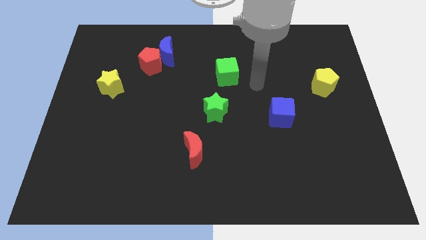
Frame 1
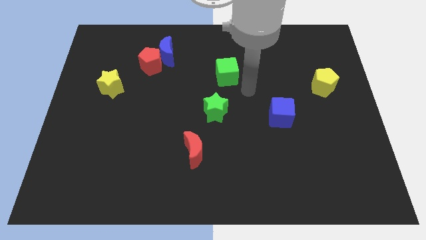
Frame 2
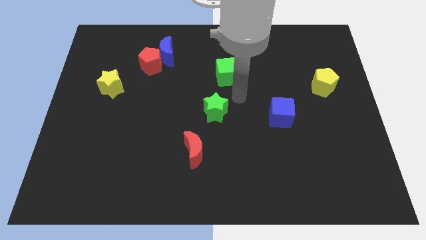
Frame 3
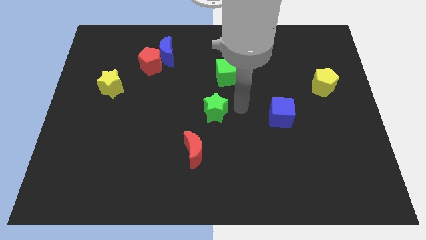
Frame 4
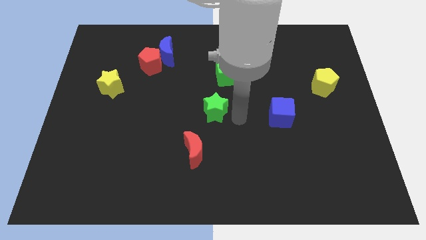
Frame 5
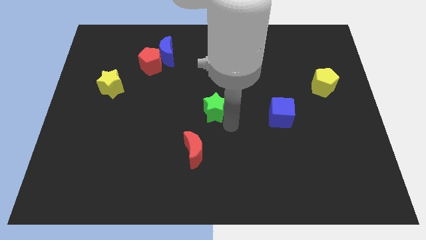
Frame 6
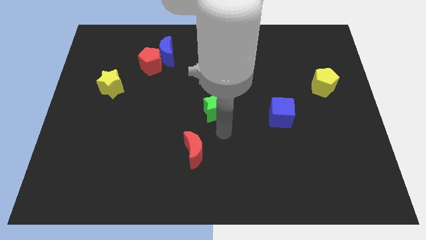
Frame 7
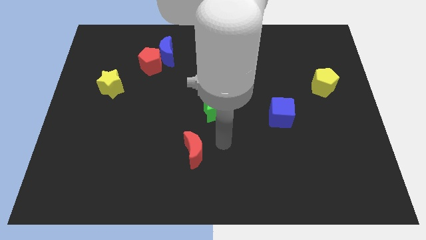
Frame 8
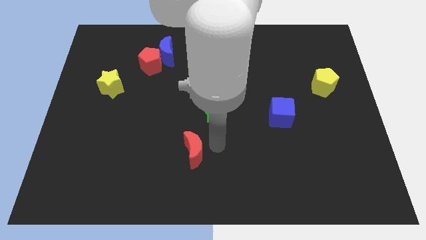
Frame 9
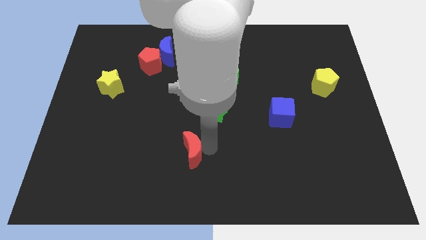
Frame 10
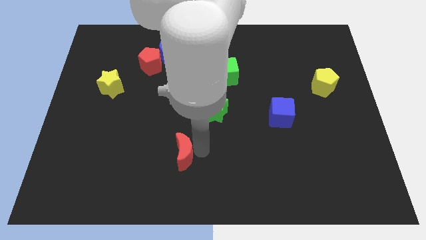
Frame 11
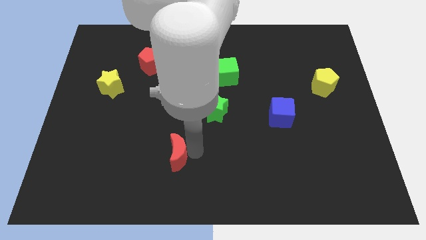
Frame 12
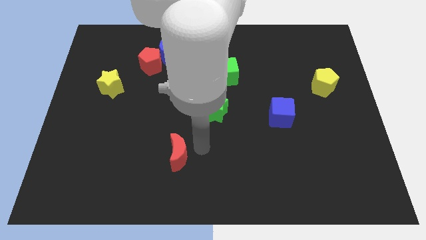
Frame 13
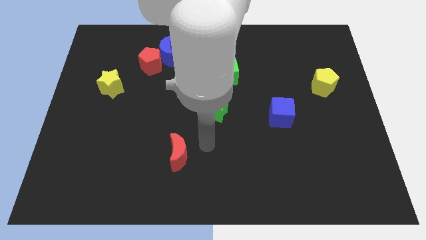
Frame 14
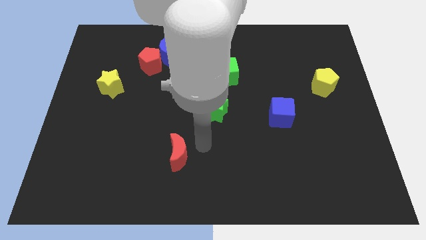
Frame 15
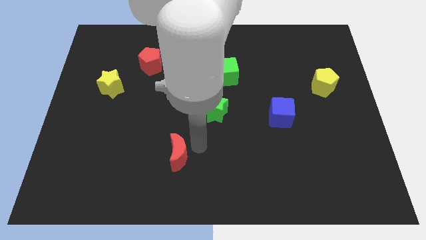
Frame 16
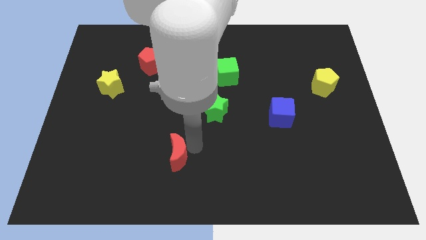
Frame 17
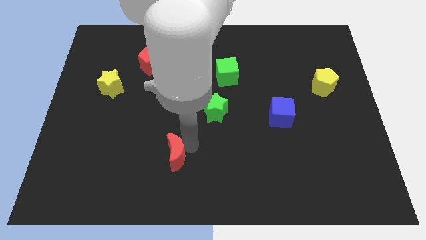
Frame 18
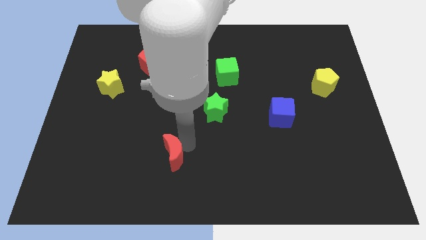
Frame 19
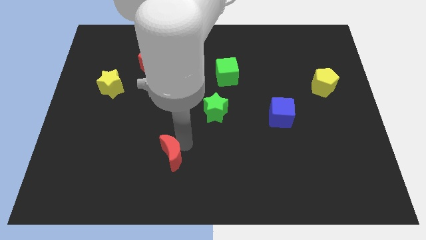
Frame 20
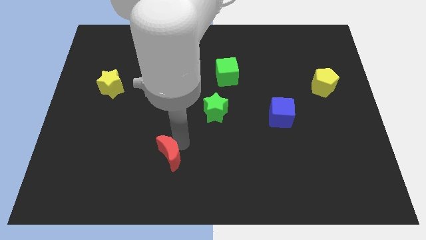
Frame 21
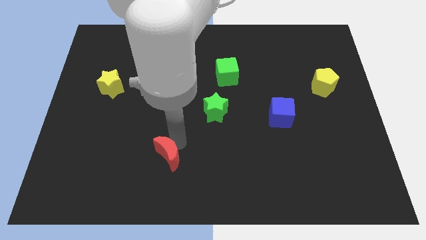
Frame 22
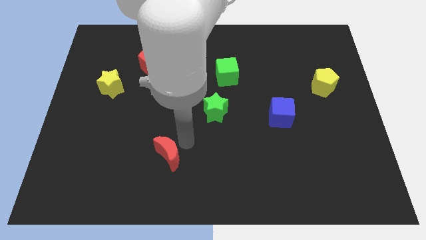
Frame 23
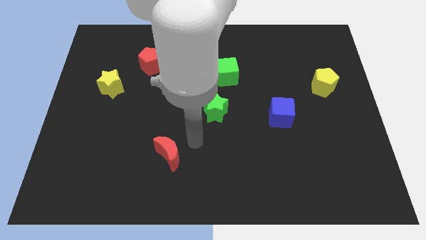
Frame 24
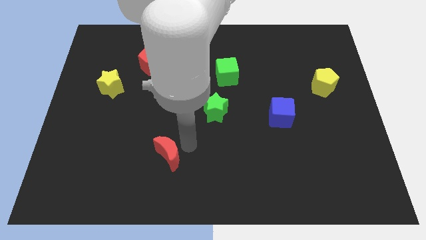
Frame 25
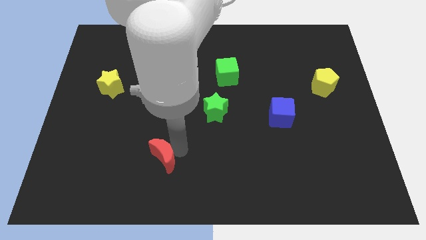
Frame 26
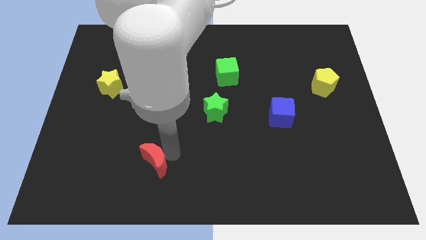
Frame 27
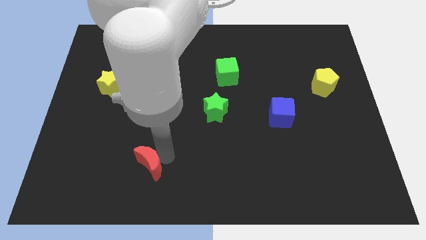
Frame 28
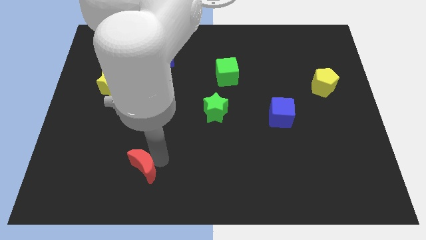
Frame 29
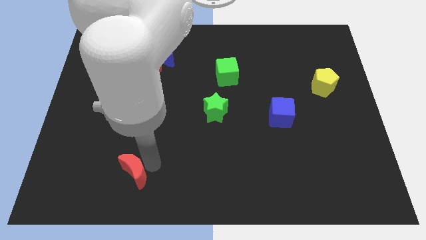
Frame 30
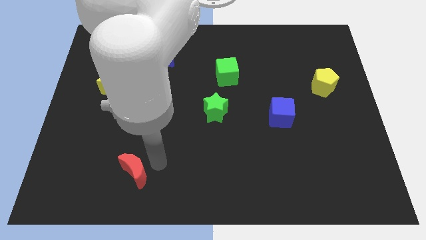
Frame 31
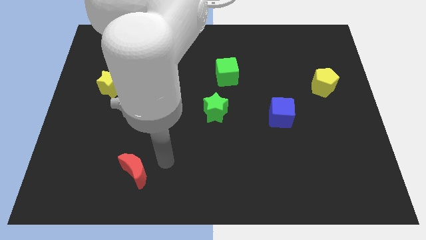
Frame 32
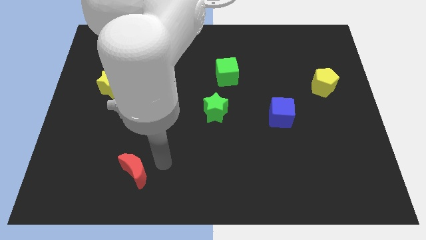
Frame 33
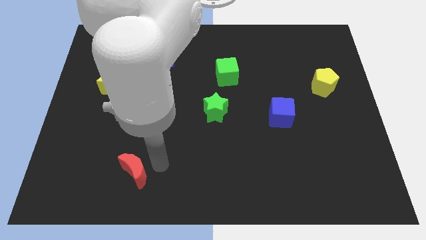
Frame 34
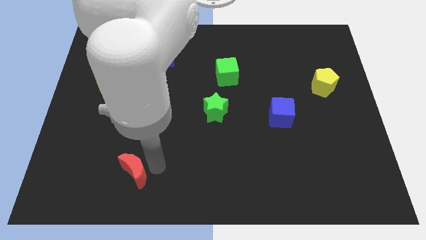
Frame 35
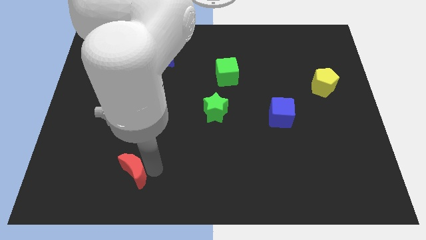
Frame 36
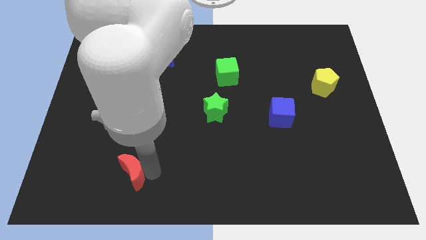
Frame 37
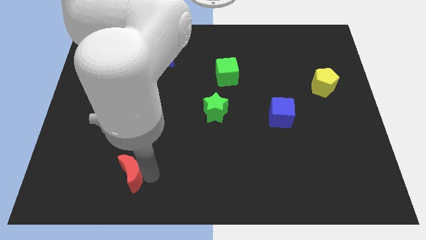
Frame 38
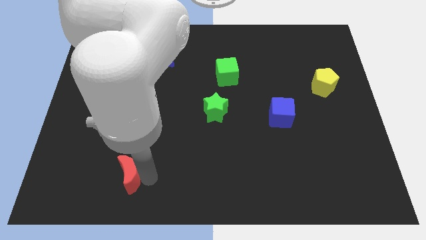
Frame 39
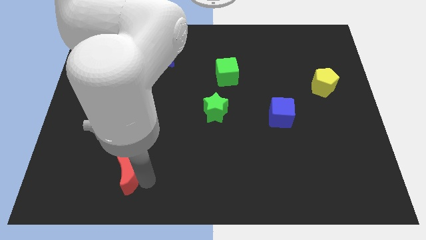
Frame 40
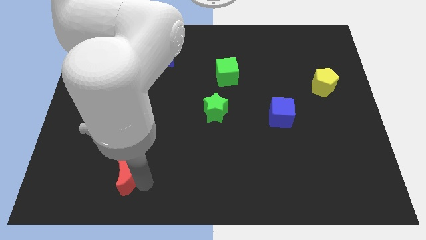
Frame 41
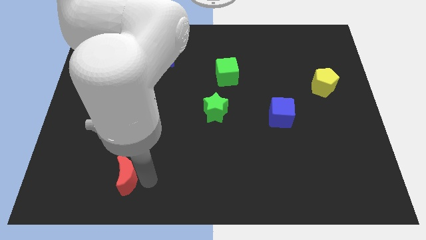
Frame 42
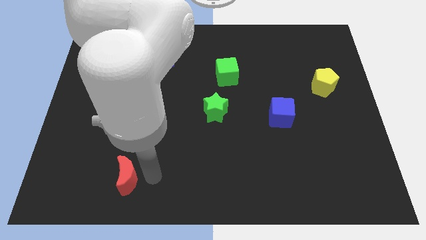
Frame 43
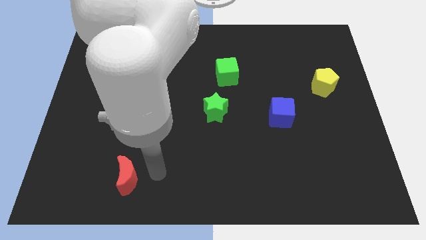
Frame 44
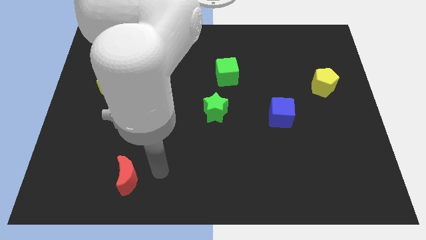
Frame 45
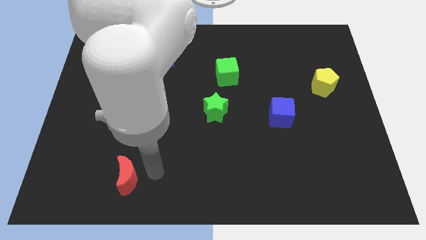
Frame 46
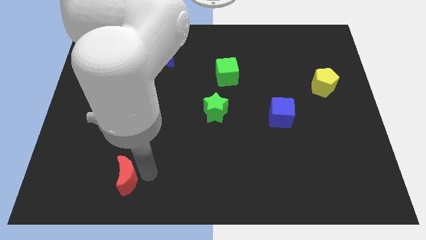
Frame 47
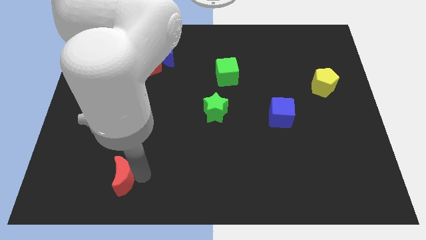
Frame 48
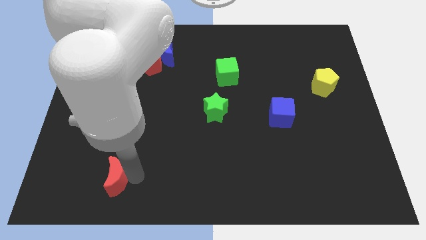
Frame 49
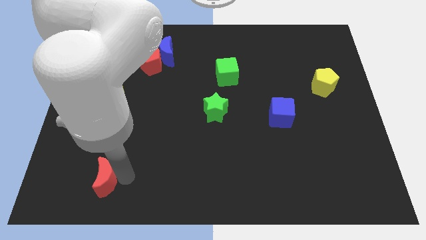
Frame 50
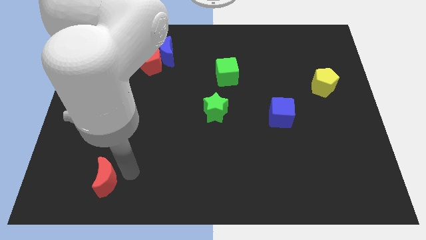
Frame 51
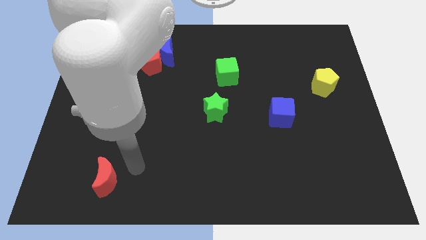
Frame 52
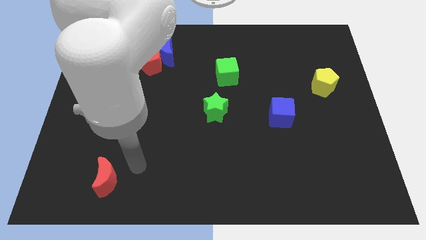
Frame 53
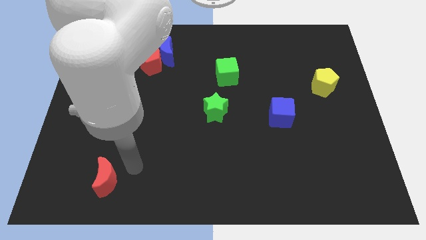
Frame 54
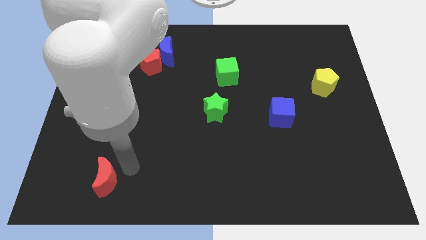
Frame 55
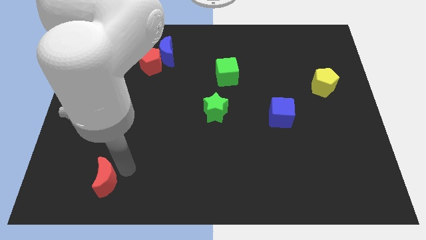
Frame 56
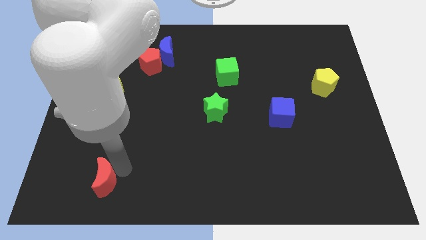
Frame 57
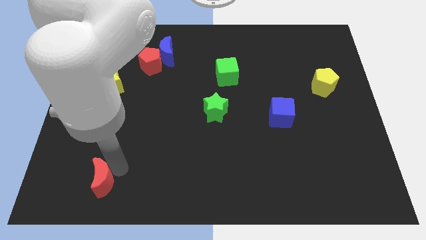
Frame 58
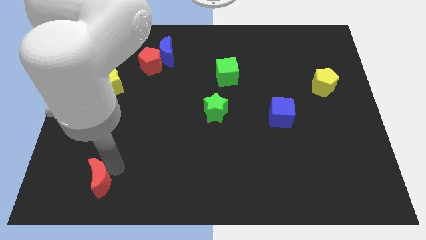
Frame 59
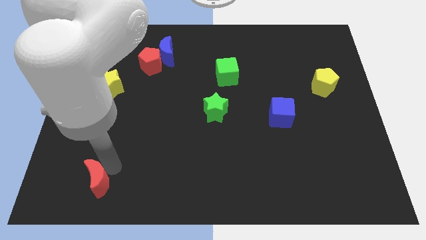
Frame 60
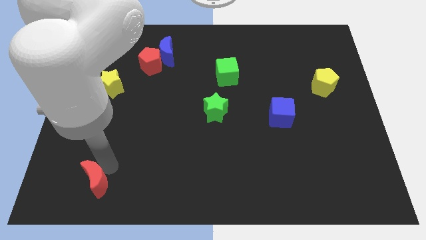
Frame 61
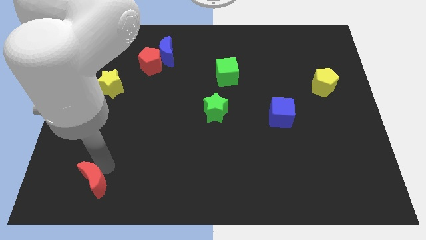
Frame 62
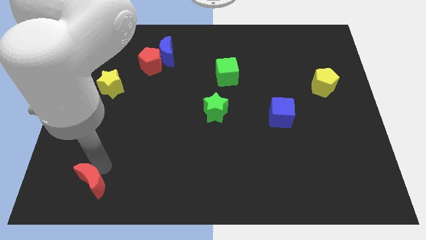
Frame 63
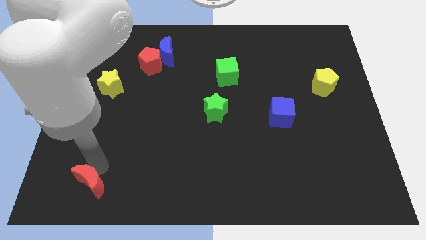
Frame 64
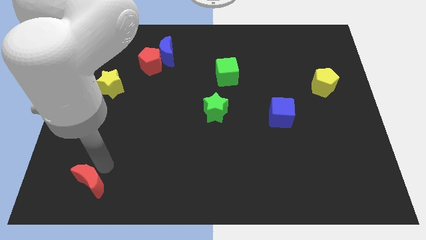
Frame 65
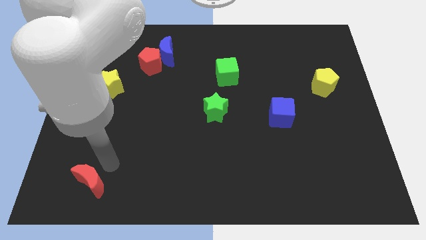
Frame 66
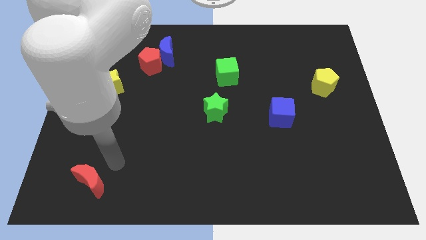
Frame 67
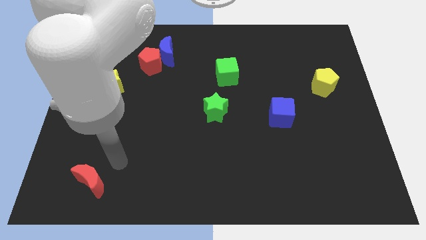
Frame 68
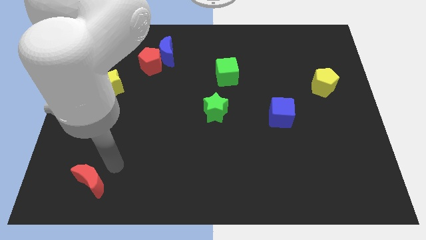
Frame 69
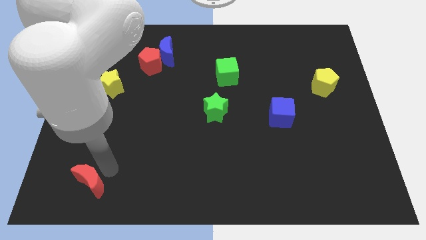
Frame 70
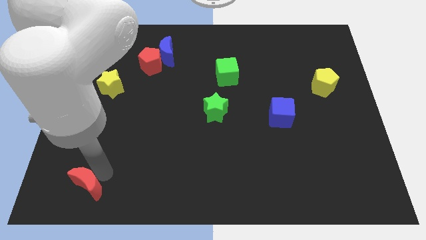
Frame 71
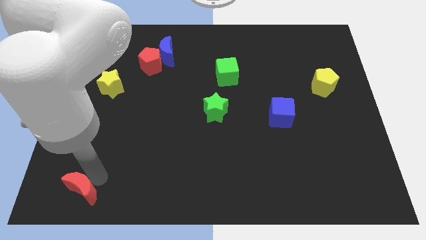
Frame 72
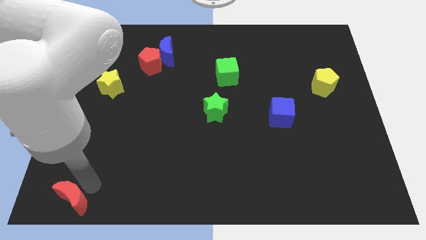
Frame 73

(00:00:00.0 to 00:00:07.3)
push the red moon to the lower left corner
